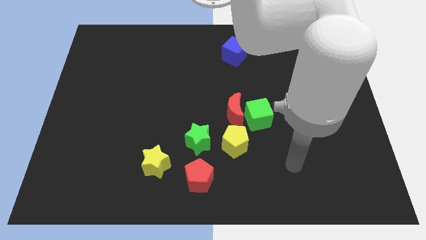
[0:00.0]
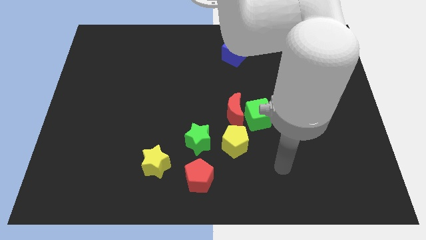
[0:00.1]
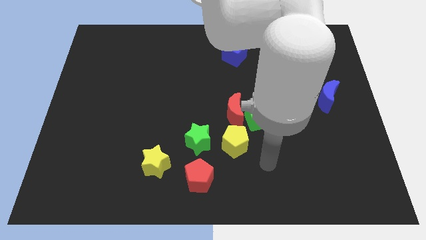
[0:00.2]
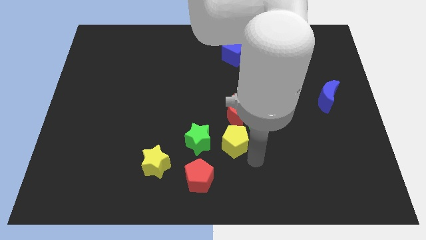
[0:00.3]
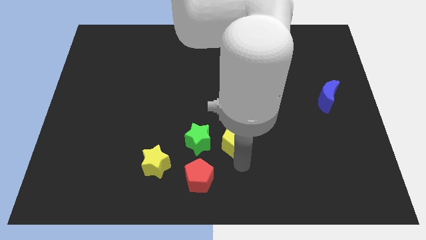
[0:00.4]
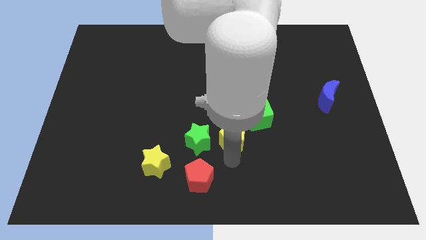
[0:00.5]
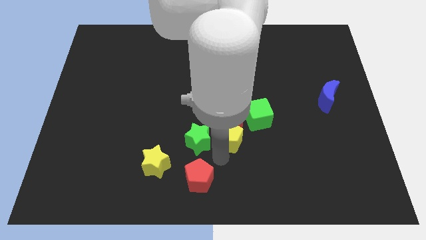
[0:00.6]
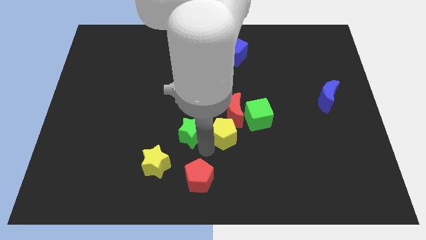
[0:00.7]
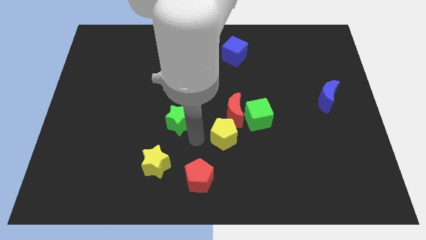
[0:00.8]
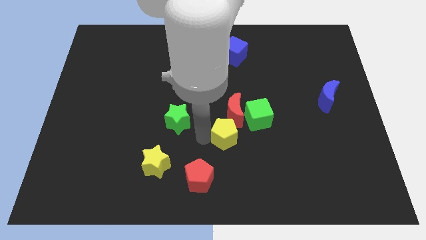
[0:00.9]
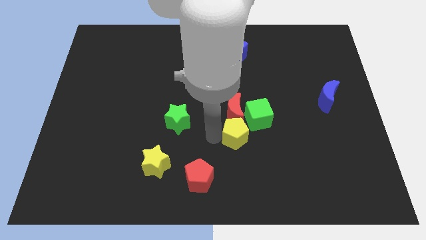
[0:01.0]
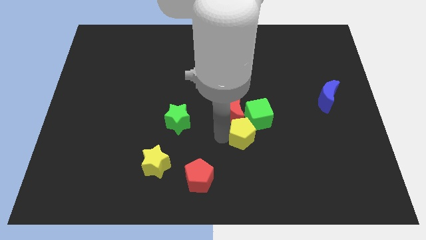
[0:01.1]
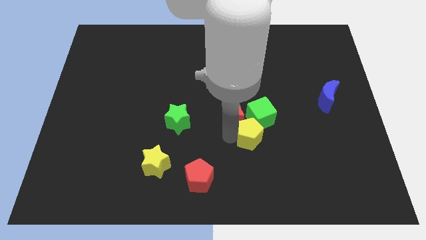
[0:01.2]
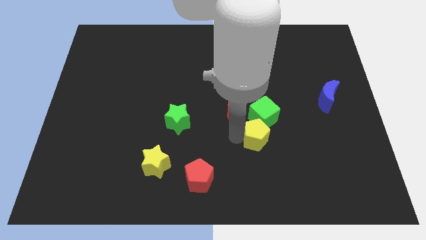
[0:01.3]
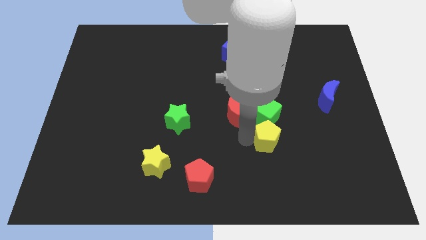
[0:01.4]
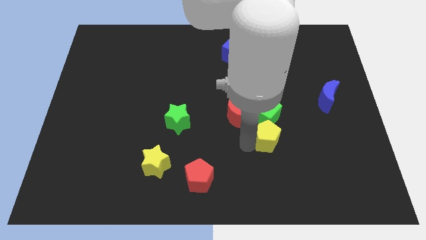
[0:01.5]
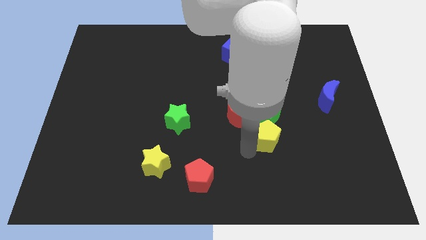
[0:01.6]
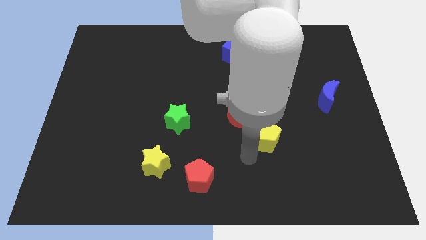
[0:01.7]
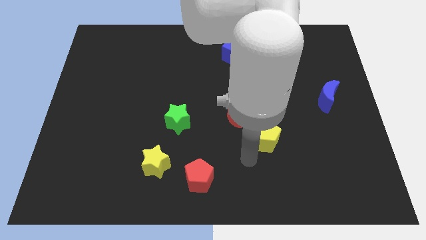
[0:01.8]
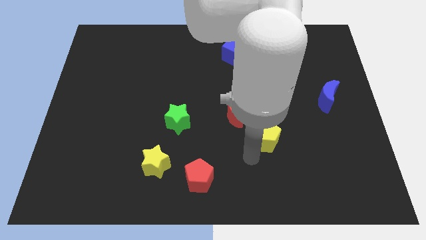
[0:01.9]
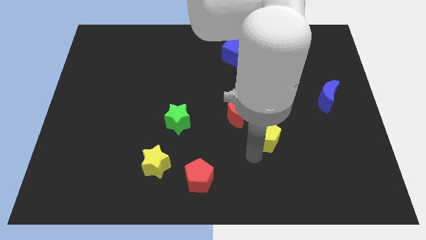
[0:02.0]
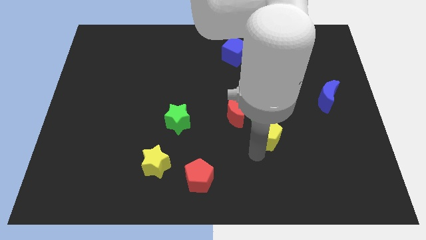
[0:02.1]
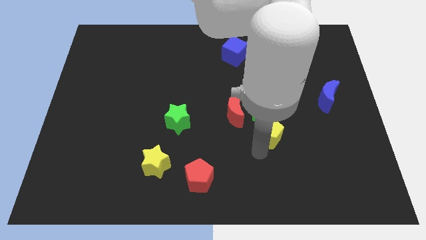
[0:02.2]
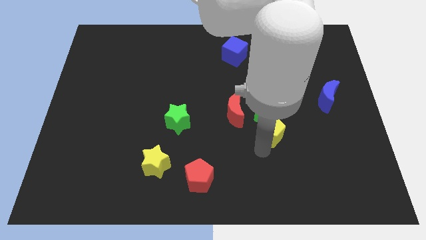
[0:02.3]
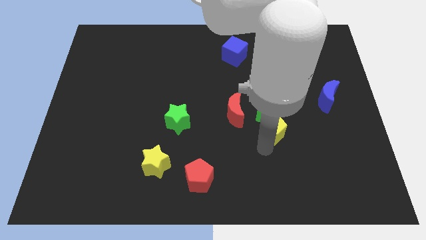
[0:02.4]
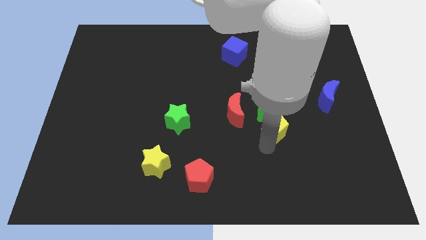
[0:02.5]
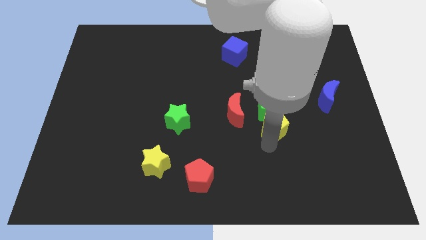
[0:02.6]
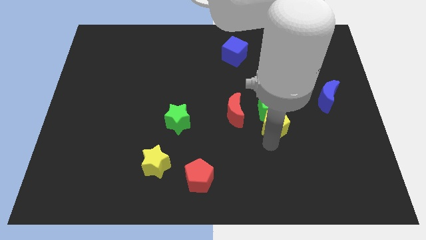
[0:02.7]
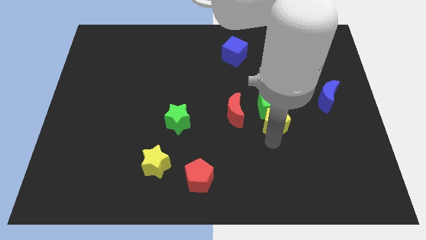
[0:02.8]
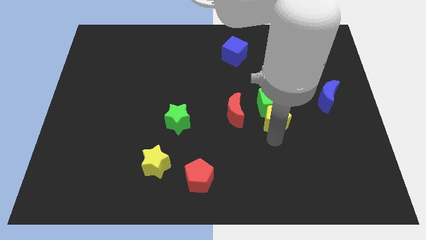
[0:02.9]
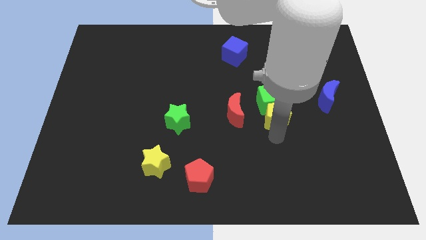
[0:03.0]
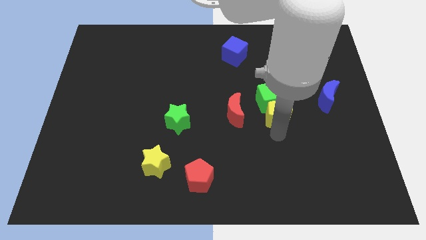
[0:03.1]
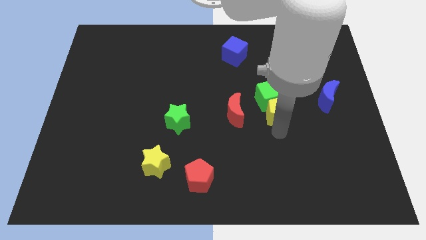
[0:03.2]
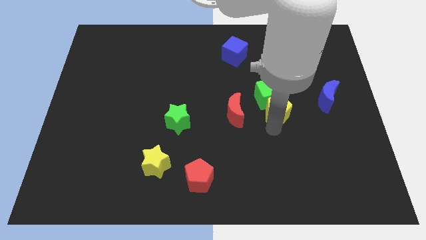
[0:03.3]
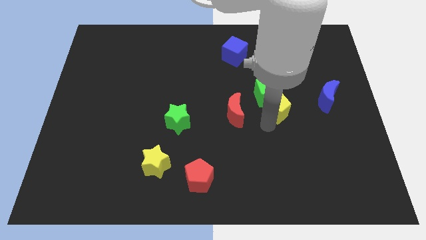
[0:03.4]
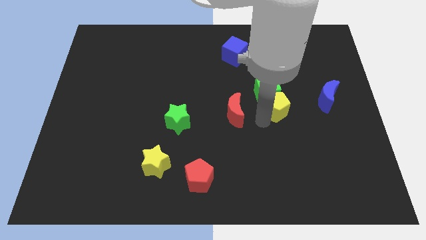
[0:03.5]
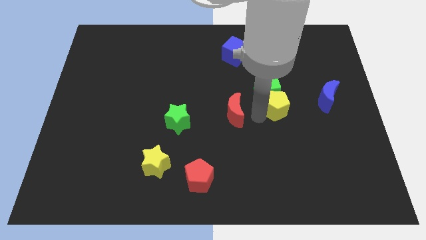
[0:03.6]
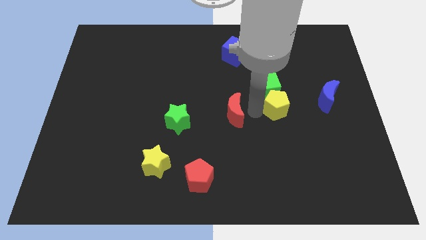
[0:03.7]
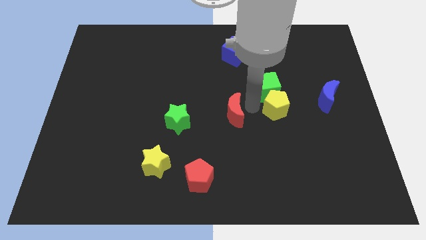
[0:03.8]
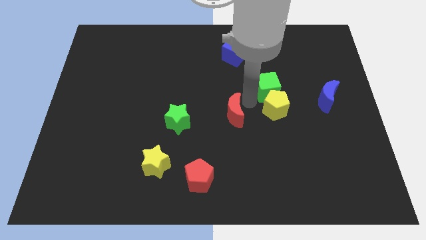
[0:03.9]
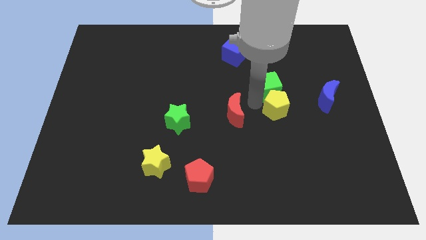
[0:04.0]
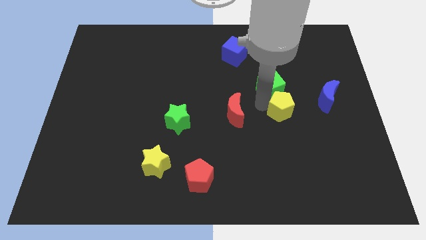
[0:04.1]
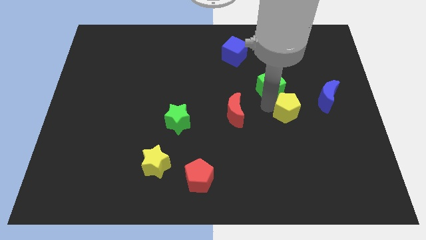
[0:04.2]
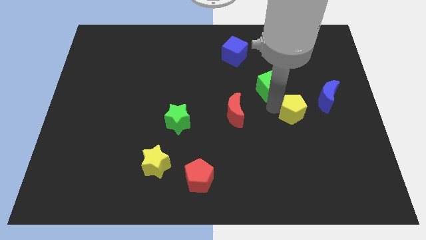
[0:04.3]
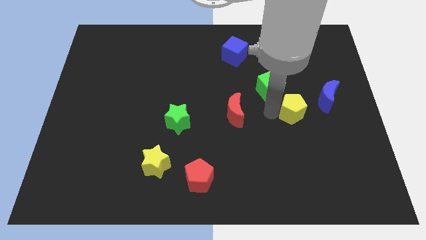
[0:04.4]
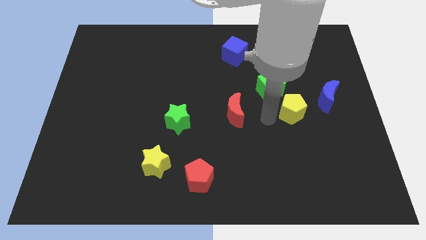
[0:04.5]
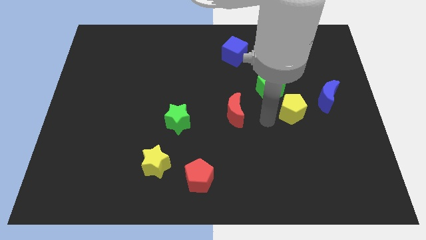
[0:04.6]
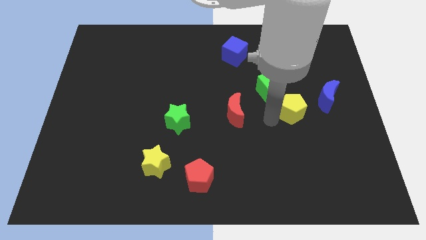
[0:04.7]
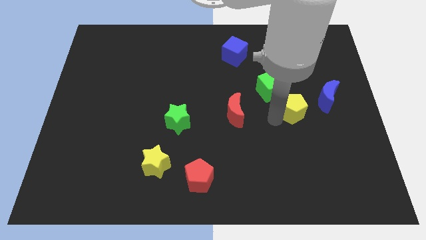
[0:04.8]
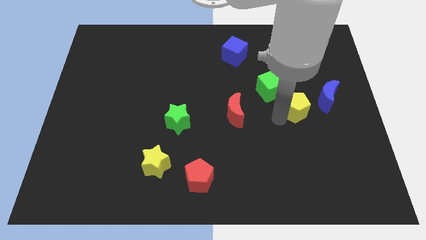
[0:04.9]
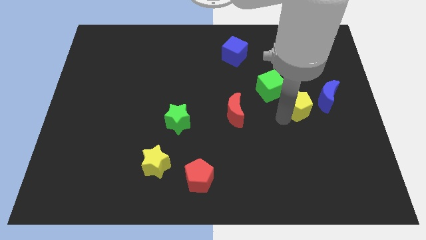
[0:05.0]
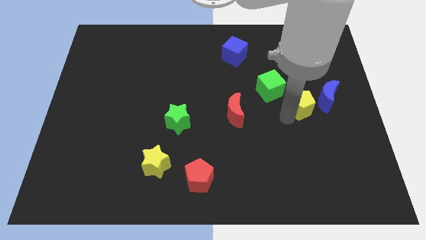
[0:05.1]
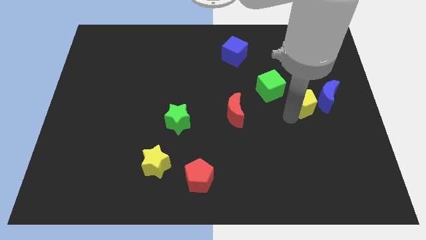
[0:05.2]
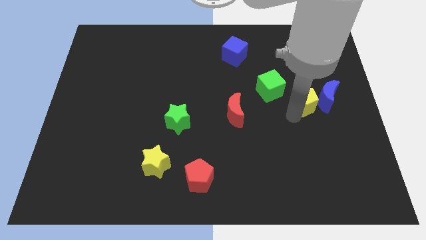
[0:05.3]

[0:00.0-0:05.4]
push the yellow pentagon to the blue moon

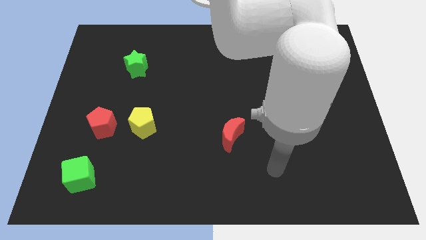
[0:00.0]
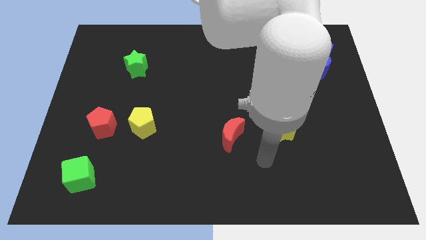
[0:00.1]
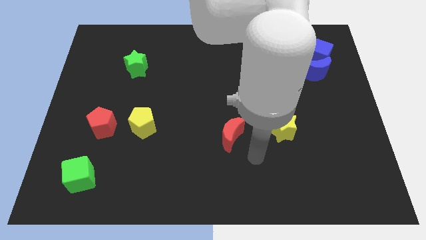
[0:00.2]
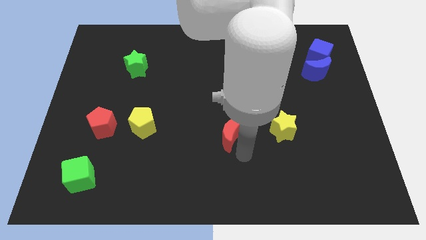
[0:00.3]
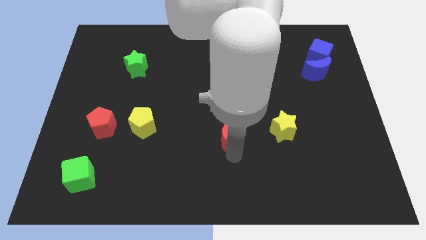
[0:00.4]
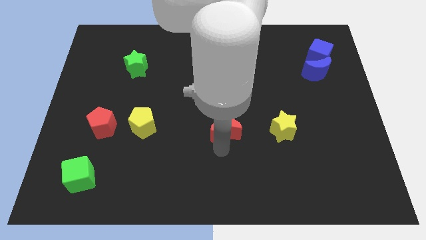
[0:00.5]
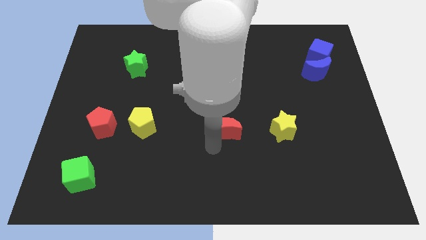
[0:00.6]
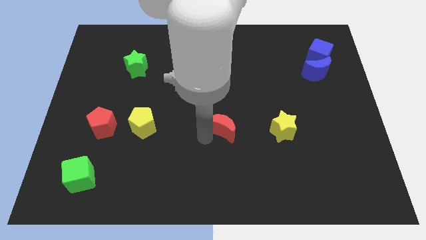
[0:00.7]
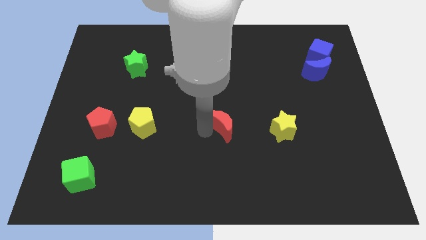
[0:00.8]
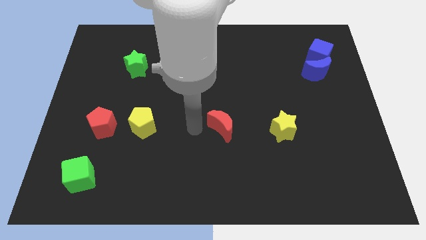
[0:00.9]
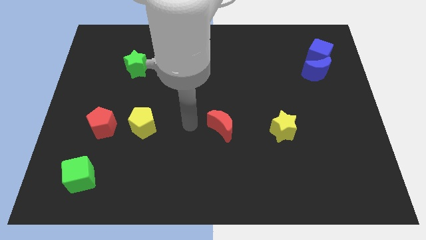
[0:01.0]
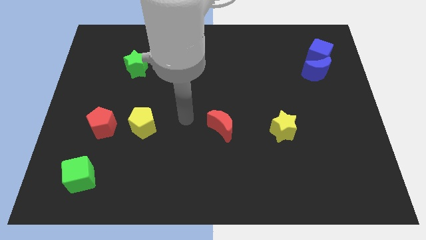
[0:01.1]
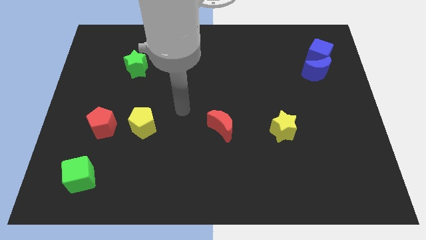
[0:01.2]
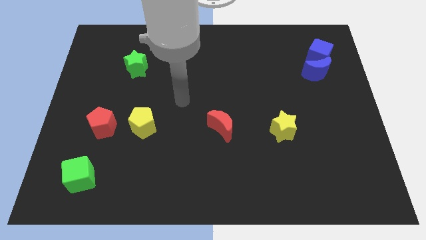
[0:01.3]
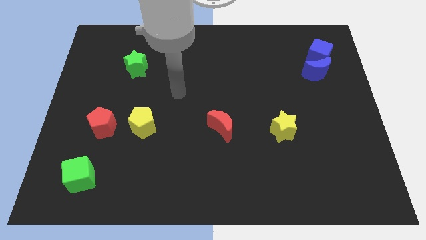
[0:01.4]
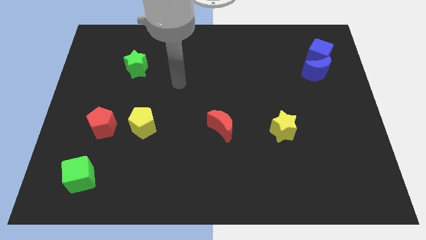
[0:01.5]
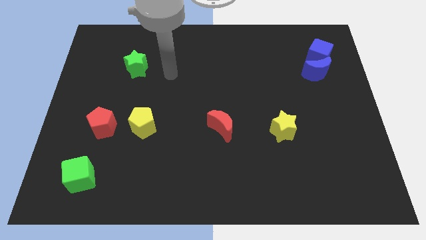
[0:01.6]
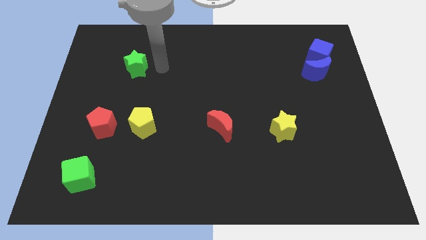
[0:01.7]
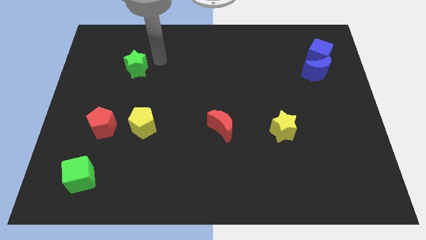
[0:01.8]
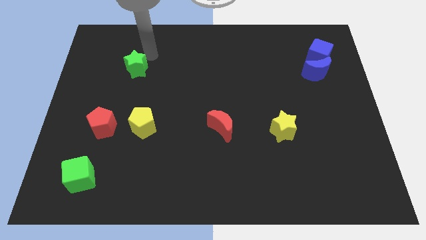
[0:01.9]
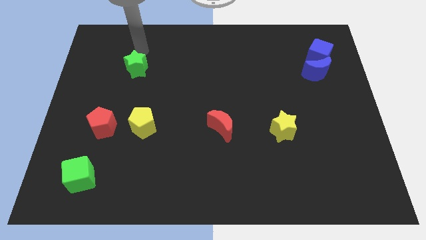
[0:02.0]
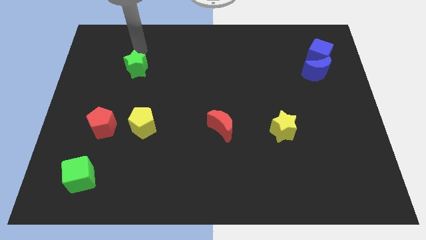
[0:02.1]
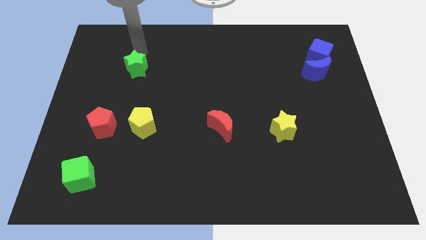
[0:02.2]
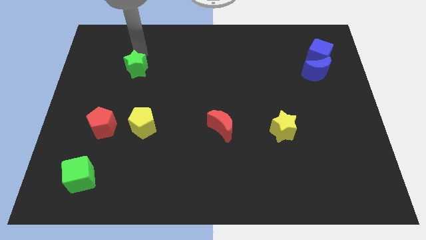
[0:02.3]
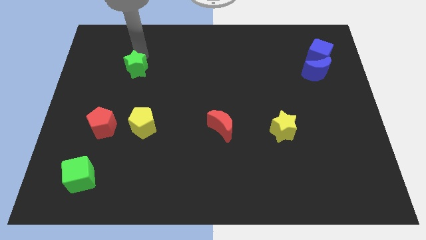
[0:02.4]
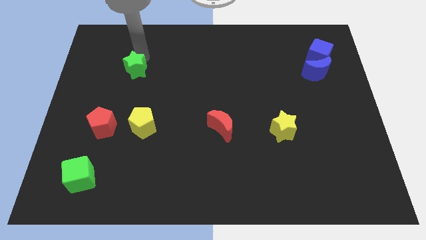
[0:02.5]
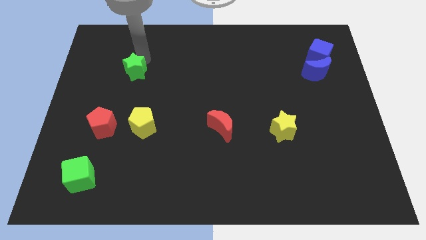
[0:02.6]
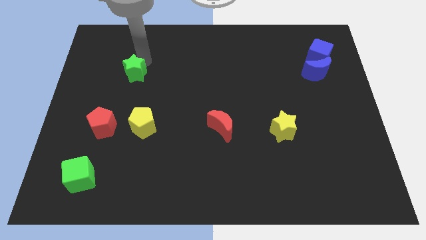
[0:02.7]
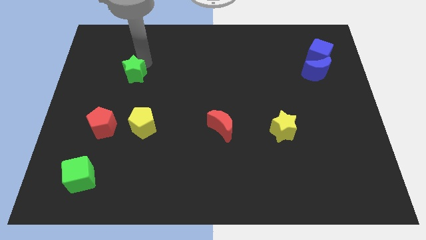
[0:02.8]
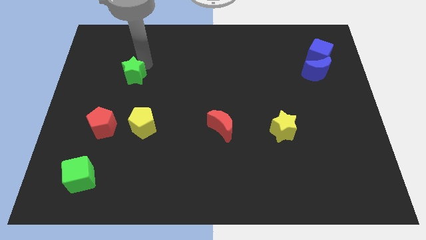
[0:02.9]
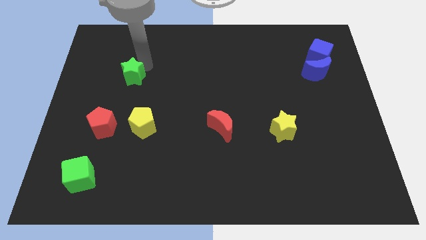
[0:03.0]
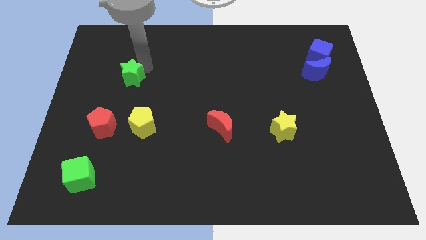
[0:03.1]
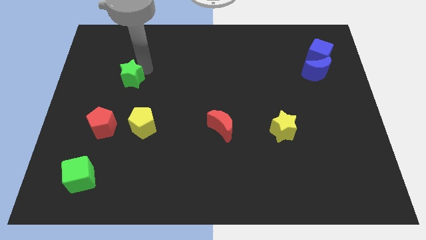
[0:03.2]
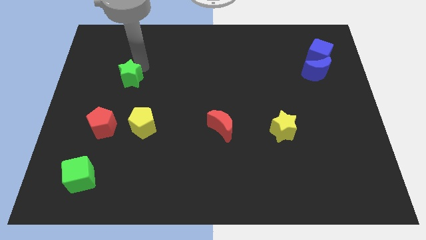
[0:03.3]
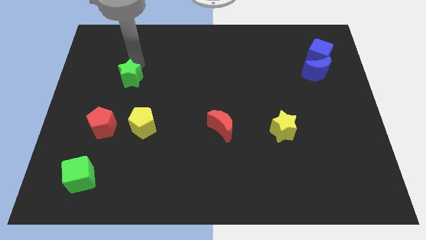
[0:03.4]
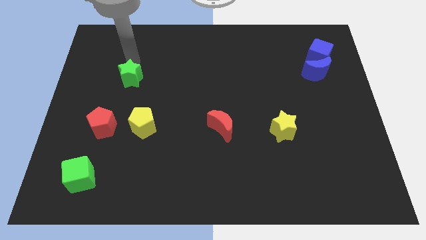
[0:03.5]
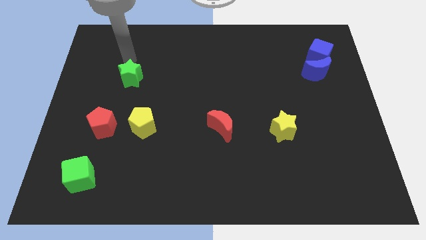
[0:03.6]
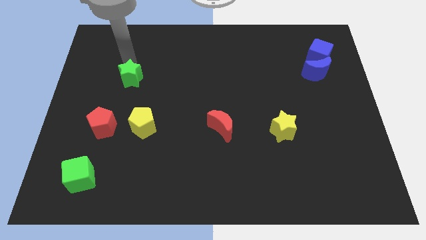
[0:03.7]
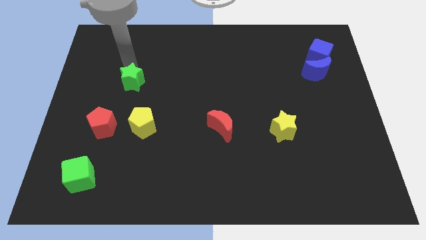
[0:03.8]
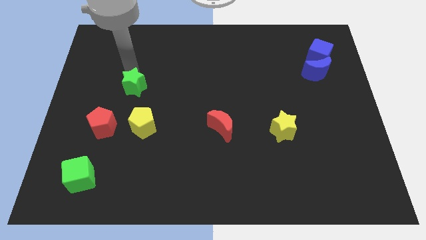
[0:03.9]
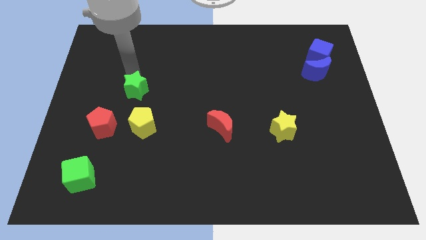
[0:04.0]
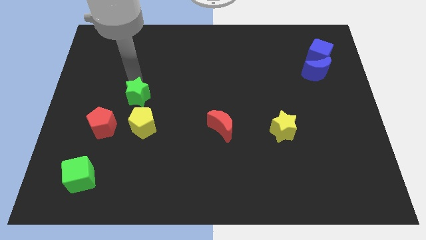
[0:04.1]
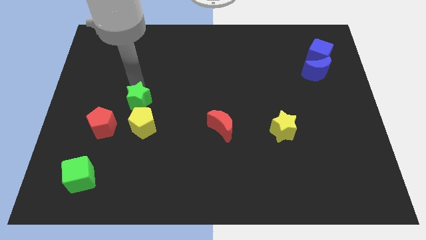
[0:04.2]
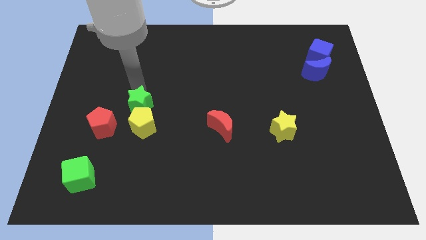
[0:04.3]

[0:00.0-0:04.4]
slide the green star next to the yellow pentagon
